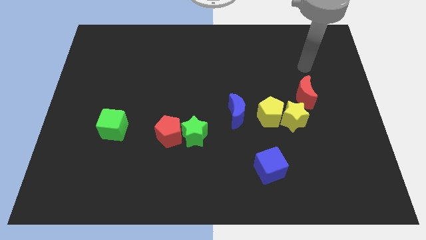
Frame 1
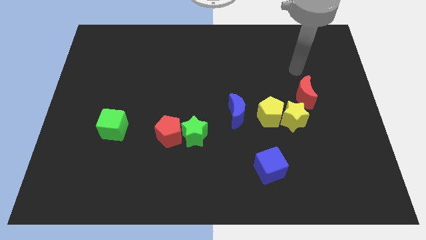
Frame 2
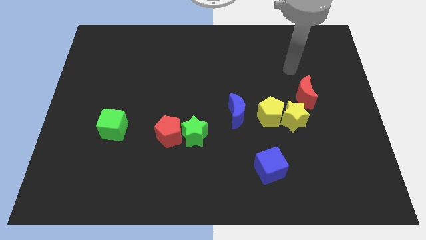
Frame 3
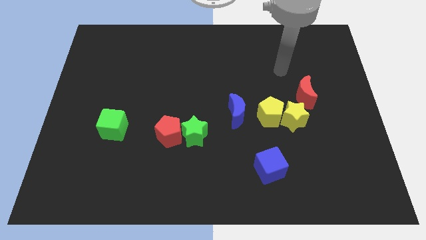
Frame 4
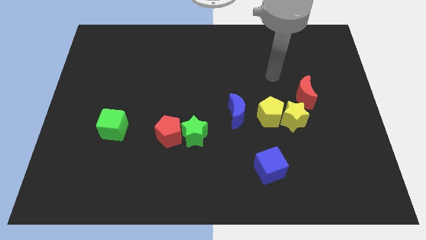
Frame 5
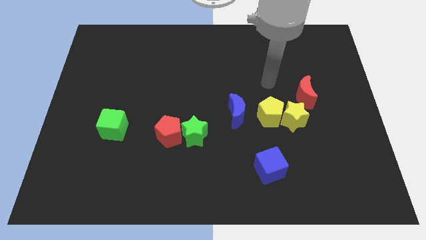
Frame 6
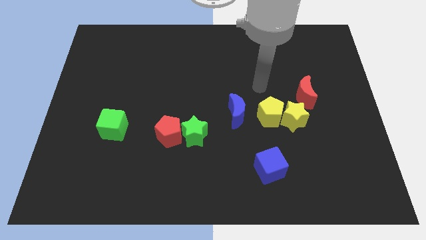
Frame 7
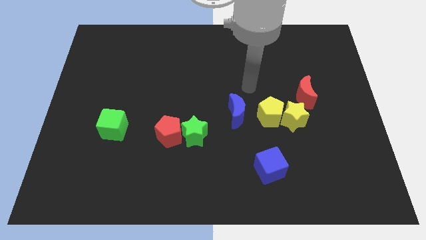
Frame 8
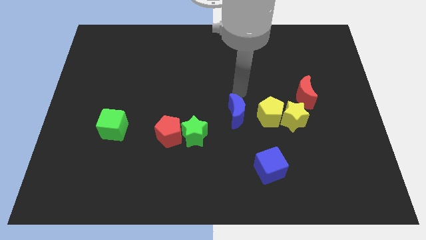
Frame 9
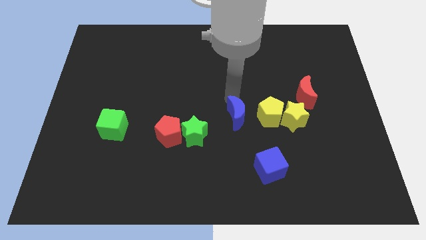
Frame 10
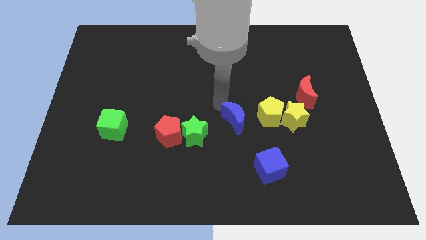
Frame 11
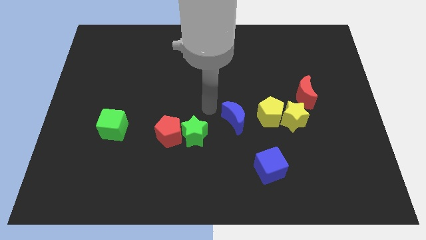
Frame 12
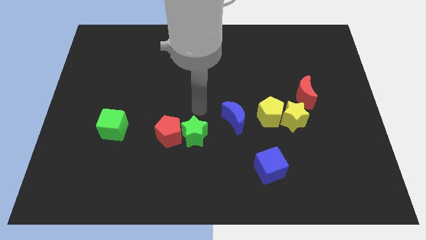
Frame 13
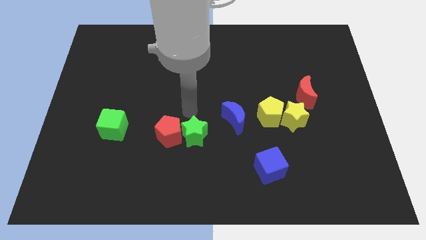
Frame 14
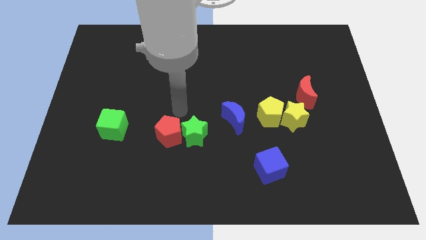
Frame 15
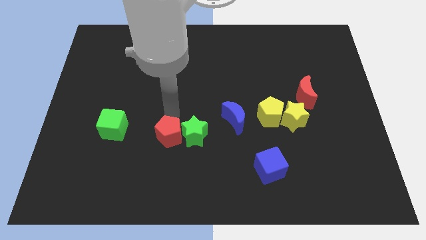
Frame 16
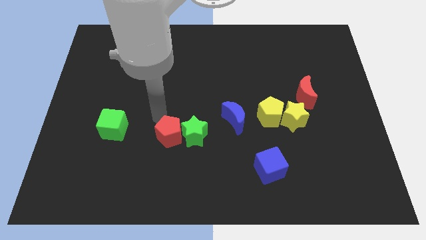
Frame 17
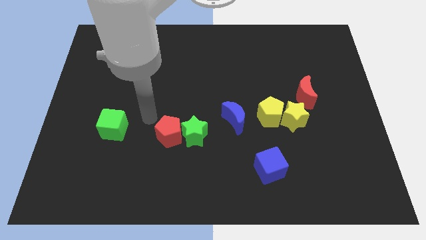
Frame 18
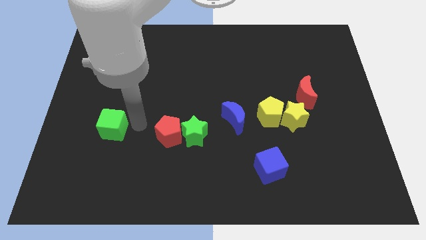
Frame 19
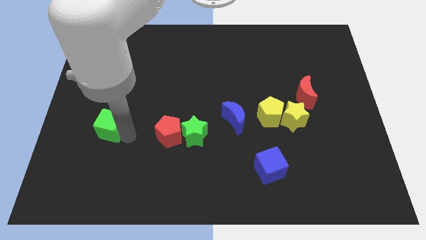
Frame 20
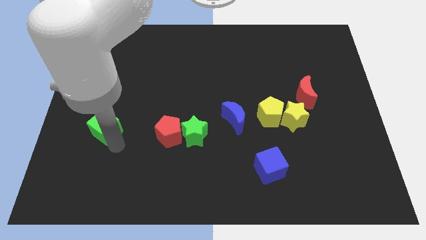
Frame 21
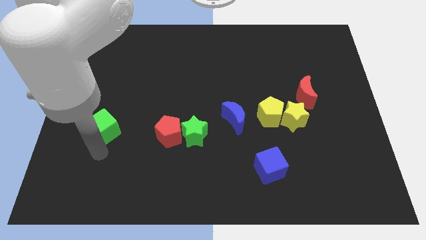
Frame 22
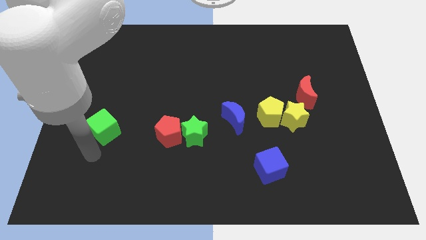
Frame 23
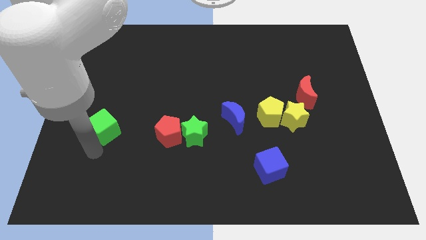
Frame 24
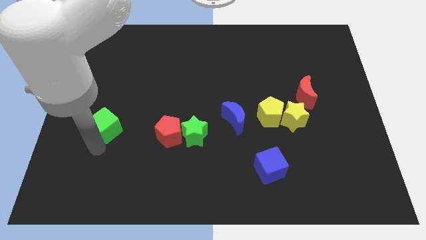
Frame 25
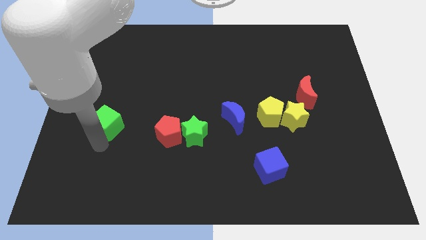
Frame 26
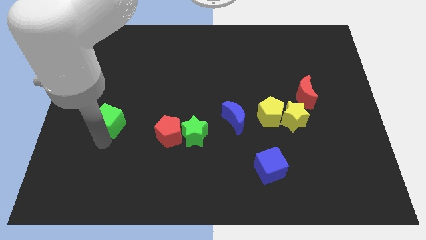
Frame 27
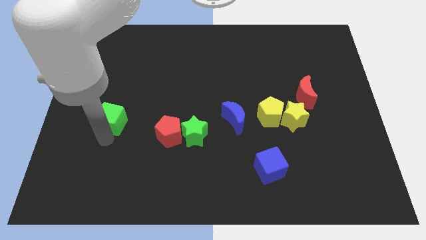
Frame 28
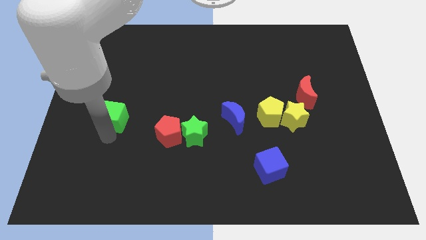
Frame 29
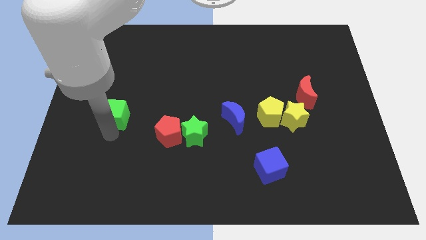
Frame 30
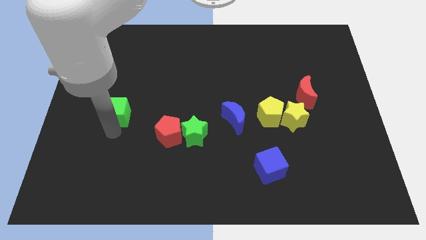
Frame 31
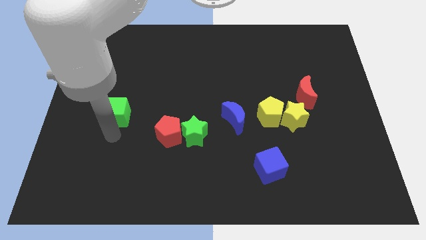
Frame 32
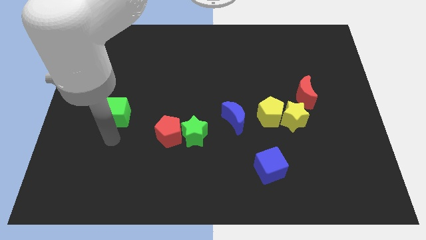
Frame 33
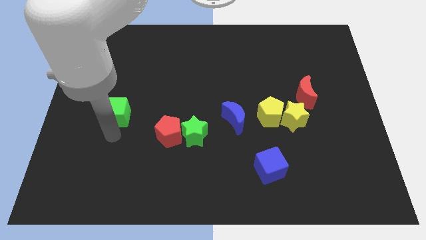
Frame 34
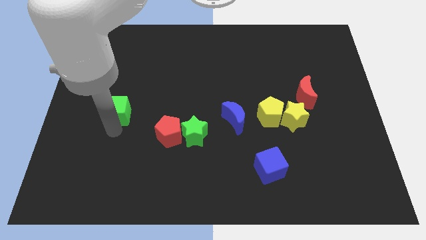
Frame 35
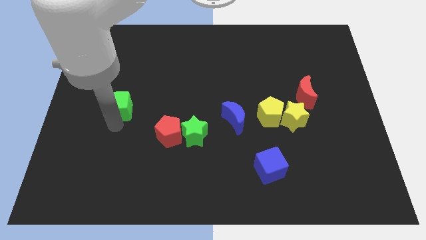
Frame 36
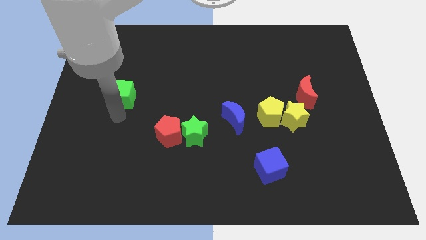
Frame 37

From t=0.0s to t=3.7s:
move the green cube upwards a bit
